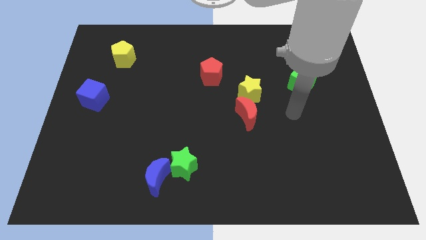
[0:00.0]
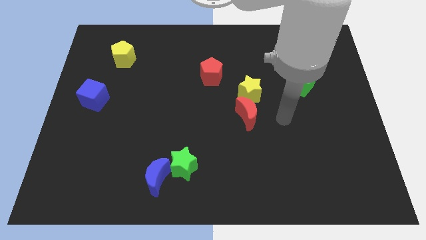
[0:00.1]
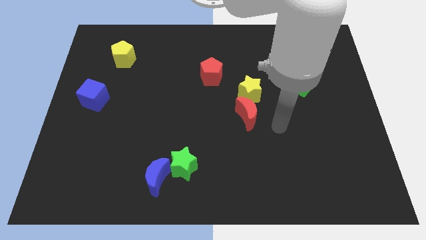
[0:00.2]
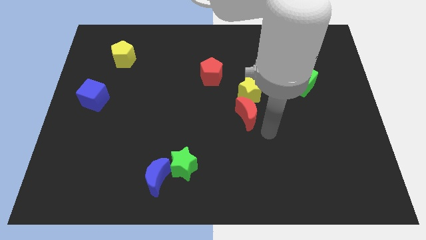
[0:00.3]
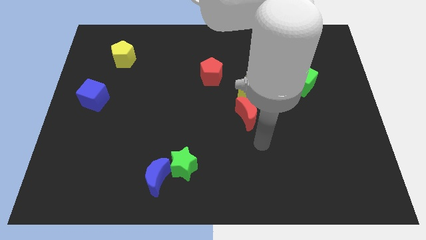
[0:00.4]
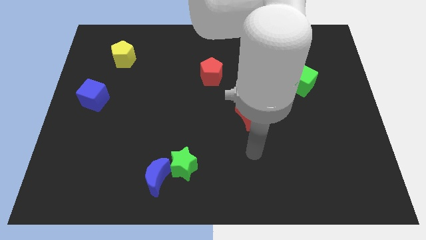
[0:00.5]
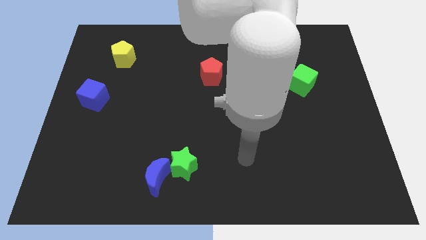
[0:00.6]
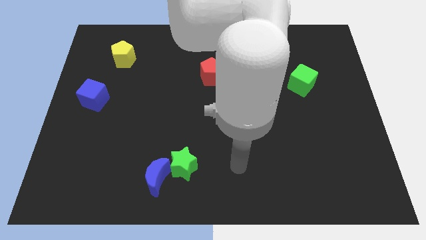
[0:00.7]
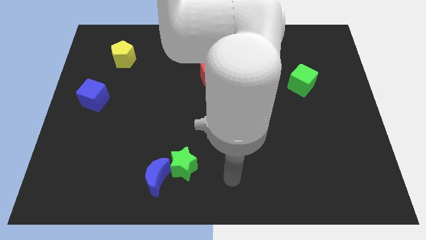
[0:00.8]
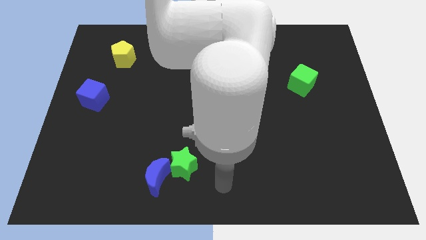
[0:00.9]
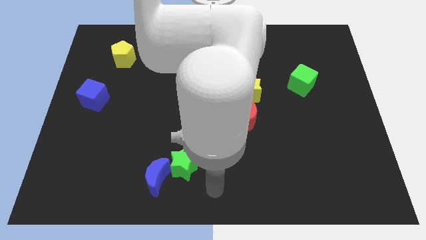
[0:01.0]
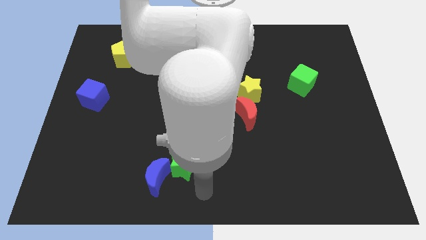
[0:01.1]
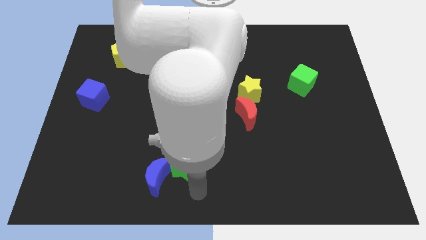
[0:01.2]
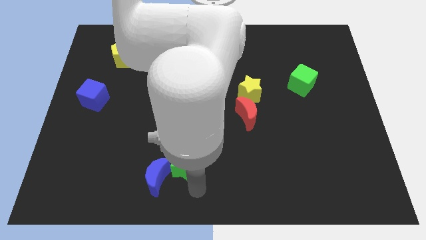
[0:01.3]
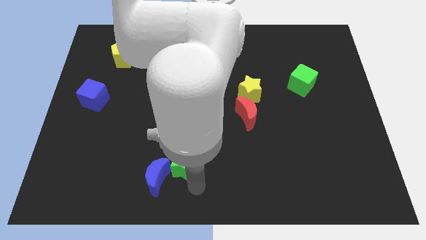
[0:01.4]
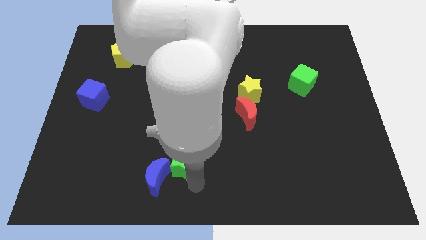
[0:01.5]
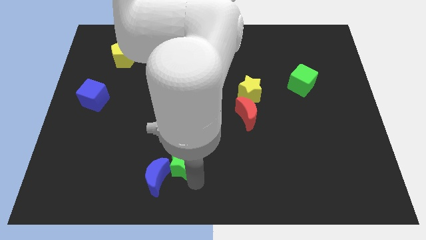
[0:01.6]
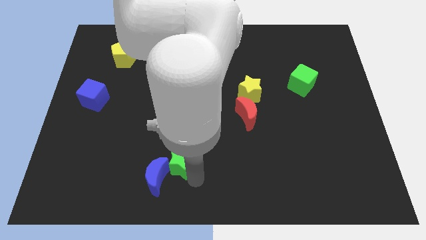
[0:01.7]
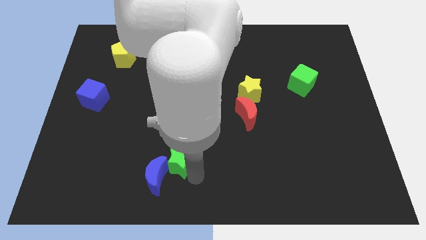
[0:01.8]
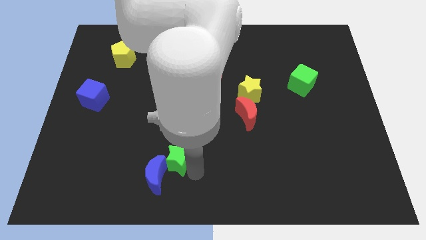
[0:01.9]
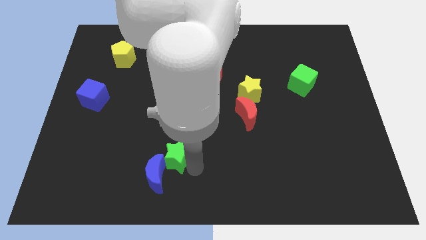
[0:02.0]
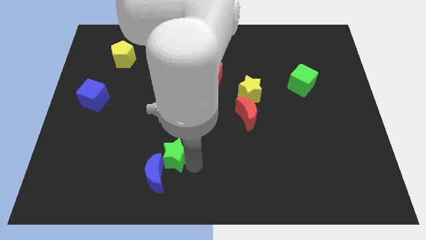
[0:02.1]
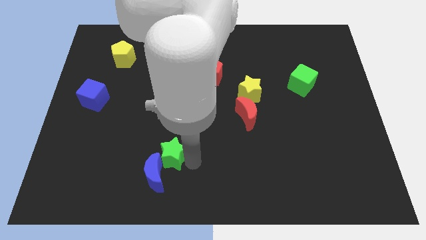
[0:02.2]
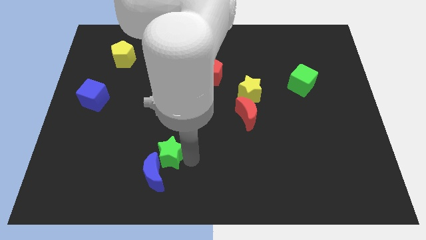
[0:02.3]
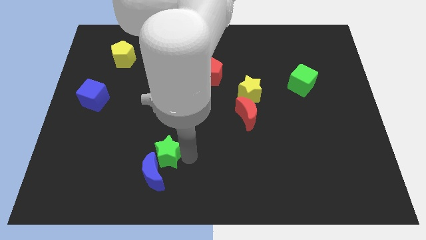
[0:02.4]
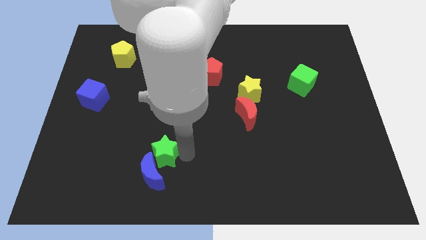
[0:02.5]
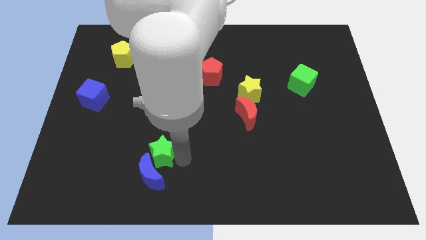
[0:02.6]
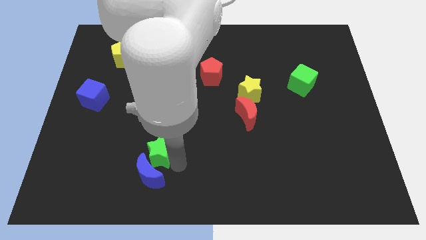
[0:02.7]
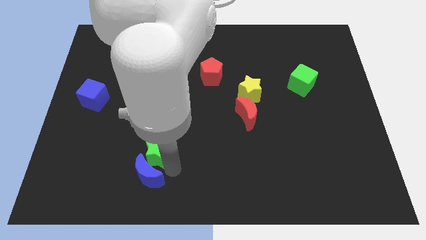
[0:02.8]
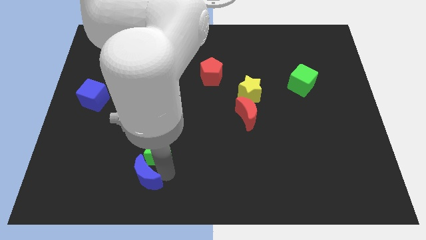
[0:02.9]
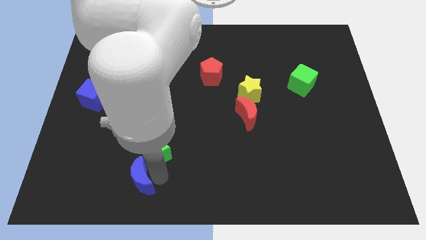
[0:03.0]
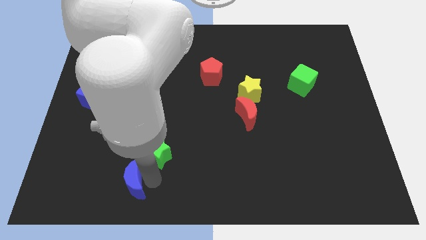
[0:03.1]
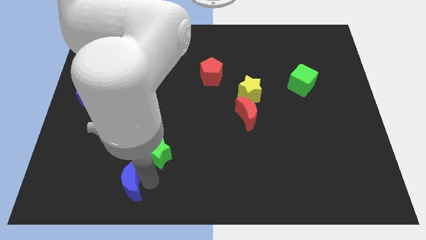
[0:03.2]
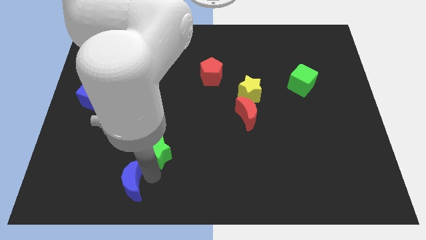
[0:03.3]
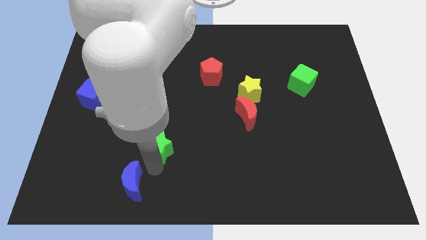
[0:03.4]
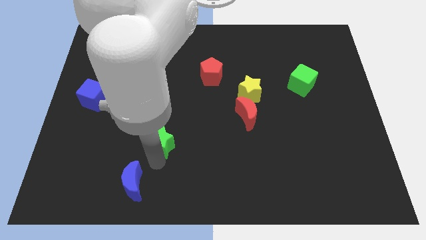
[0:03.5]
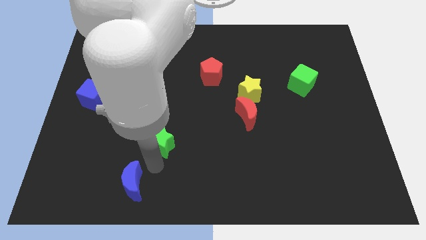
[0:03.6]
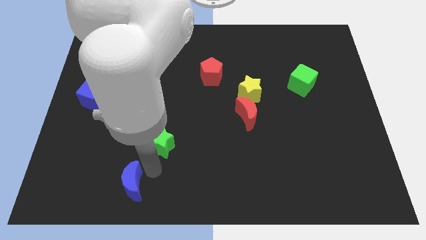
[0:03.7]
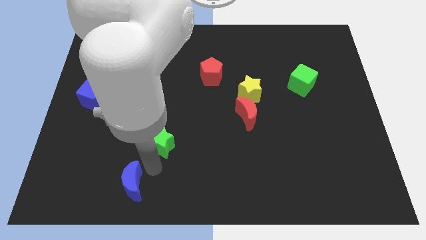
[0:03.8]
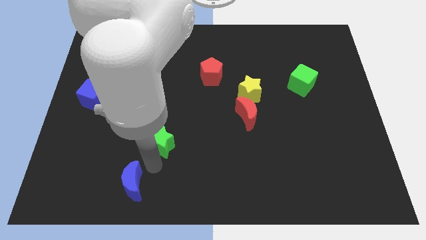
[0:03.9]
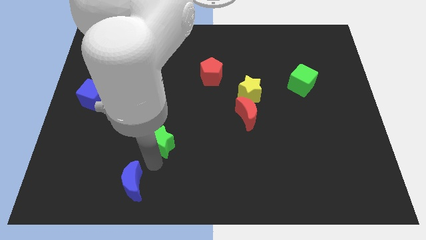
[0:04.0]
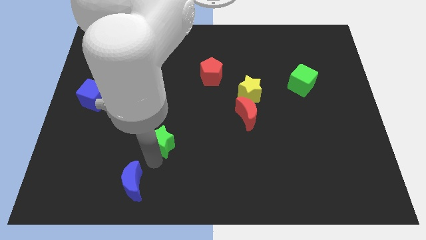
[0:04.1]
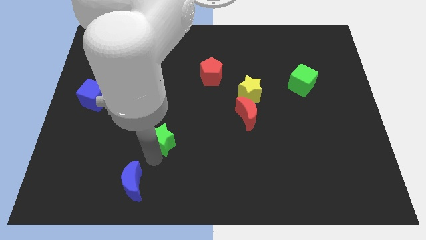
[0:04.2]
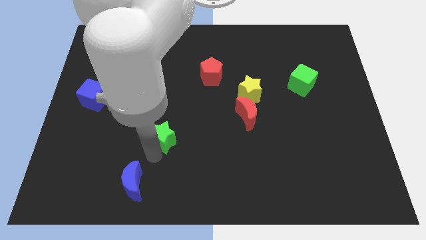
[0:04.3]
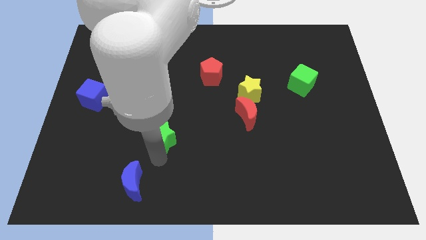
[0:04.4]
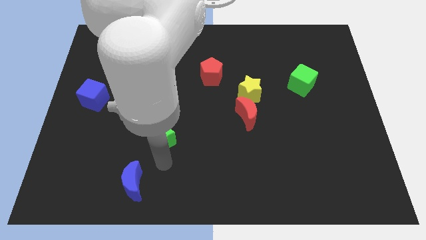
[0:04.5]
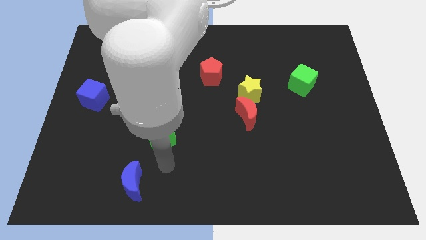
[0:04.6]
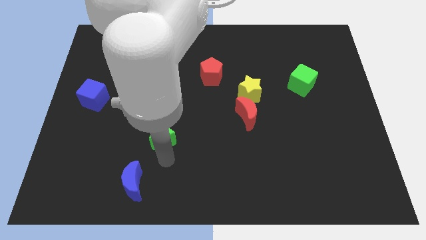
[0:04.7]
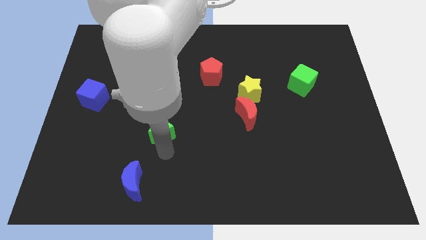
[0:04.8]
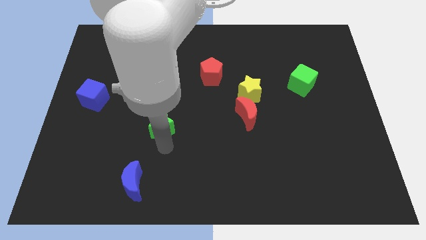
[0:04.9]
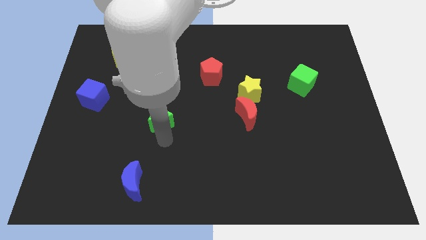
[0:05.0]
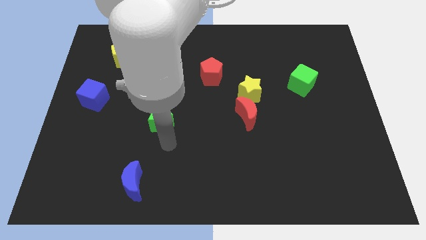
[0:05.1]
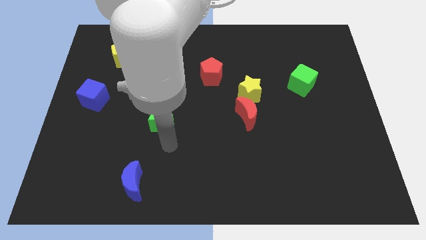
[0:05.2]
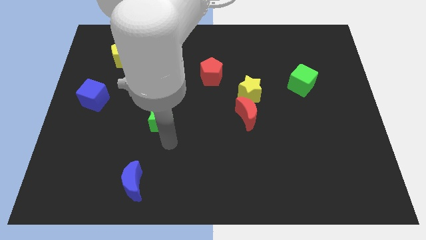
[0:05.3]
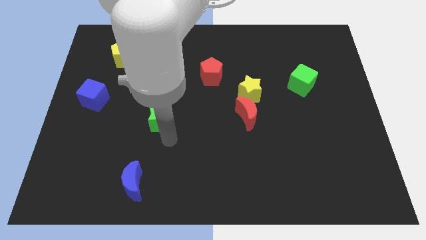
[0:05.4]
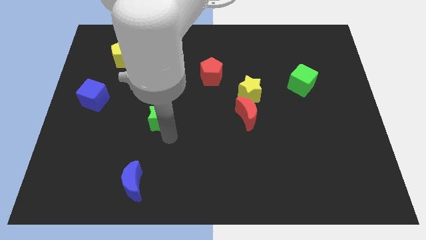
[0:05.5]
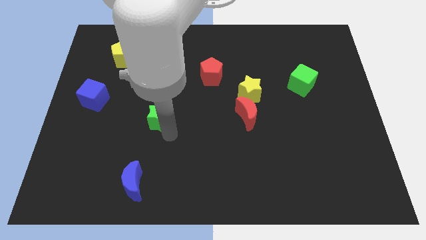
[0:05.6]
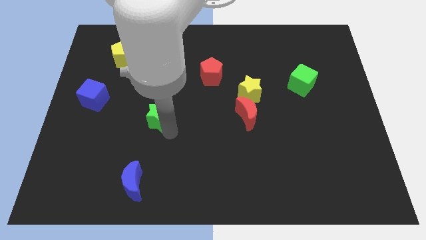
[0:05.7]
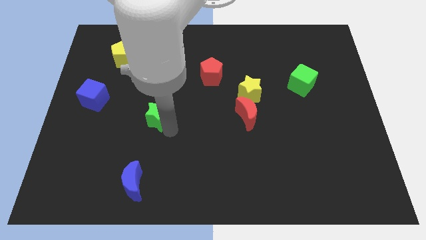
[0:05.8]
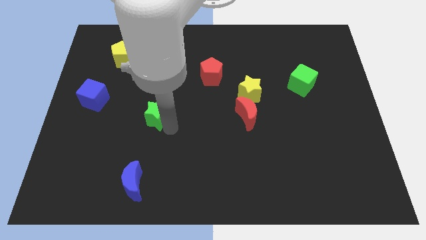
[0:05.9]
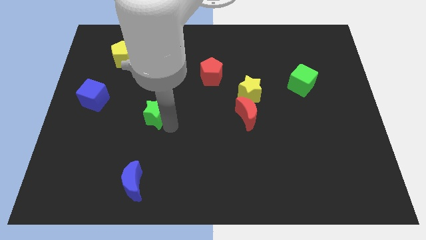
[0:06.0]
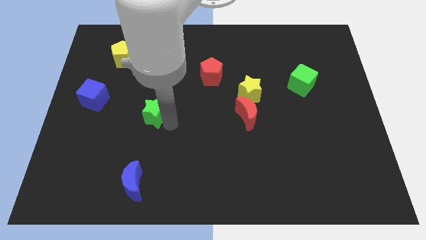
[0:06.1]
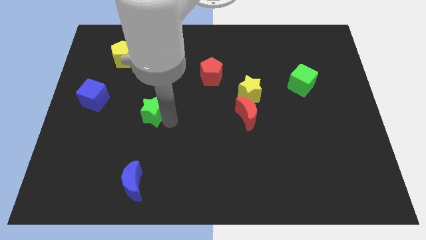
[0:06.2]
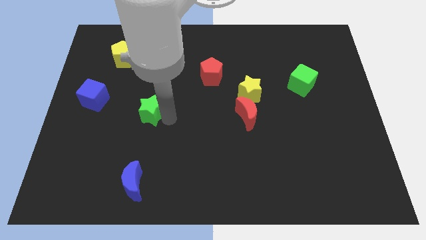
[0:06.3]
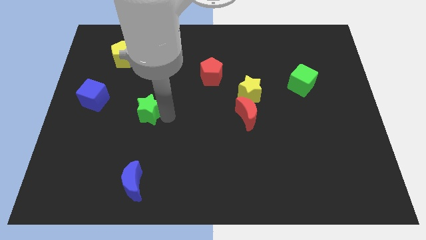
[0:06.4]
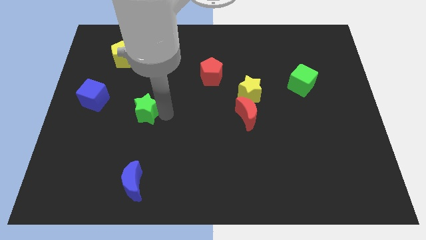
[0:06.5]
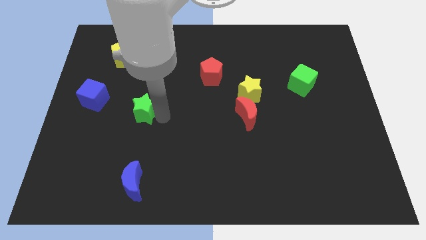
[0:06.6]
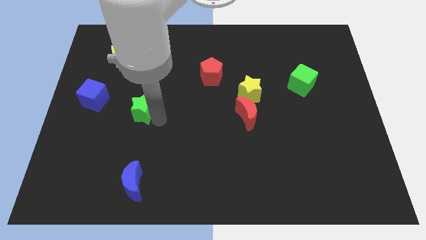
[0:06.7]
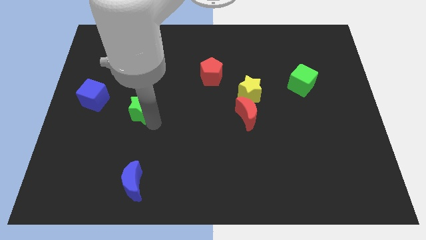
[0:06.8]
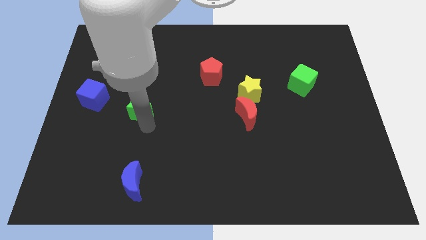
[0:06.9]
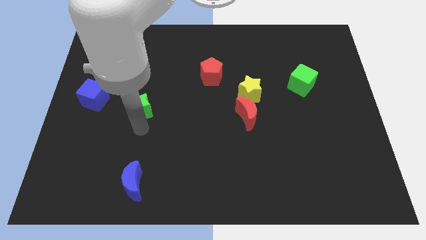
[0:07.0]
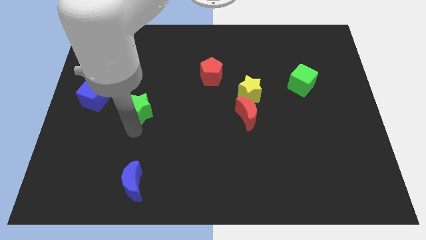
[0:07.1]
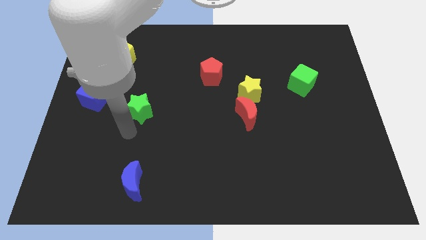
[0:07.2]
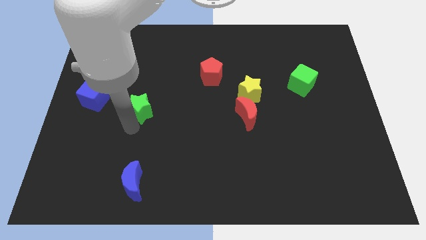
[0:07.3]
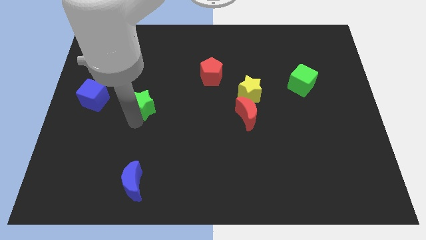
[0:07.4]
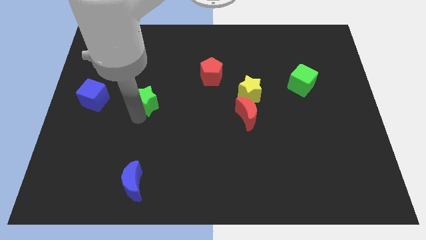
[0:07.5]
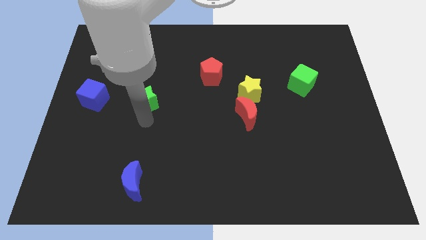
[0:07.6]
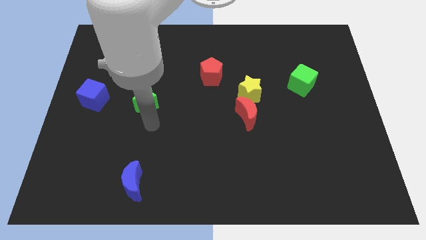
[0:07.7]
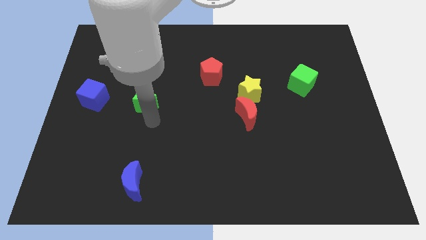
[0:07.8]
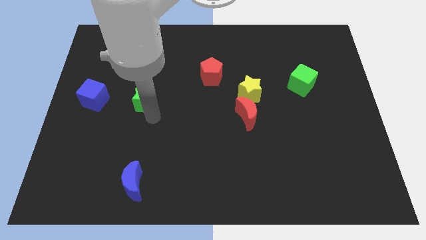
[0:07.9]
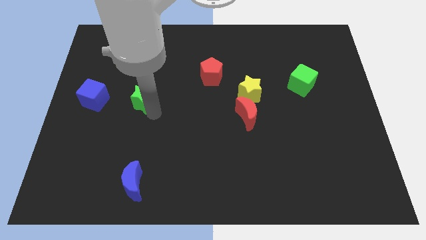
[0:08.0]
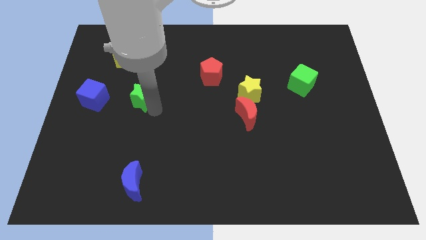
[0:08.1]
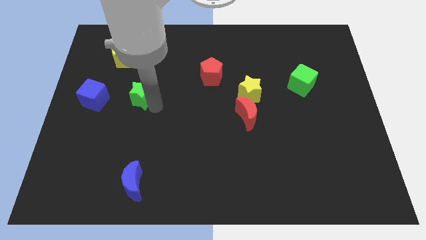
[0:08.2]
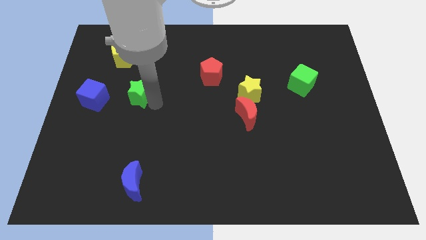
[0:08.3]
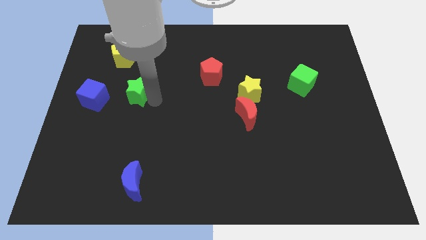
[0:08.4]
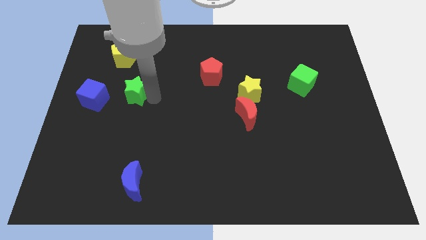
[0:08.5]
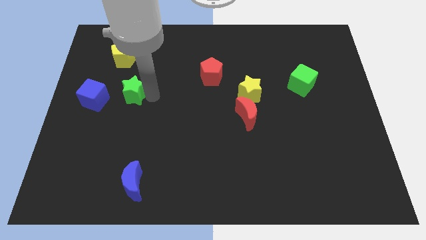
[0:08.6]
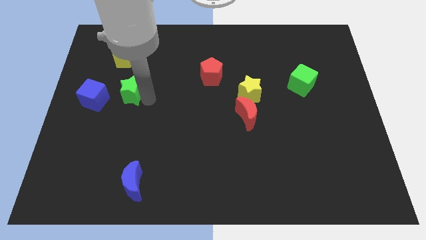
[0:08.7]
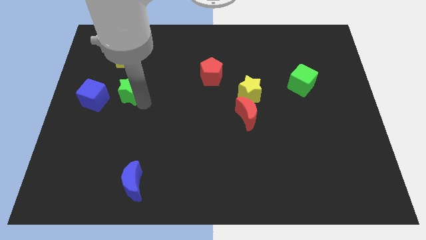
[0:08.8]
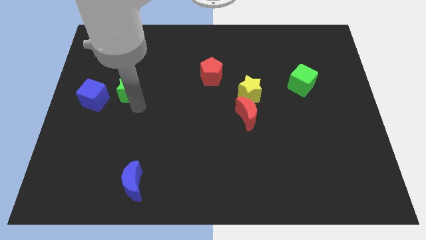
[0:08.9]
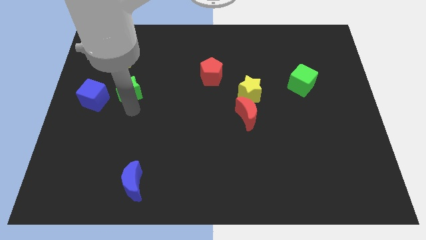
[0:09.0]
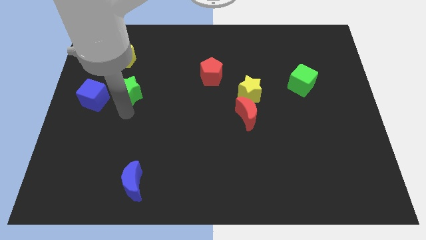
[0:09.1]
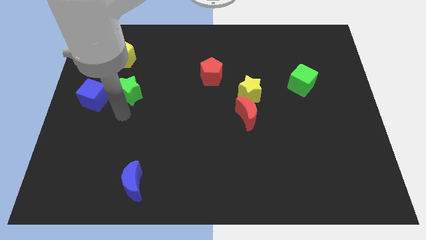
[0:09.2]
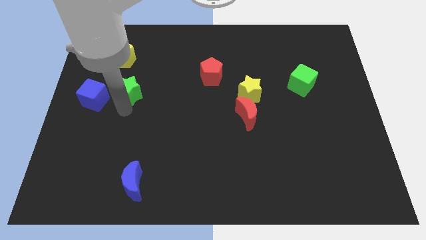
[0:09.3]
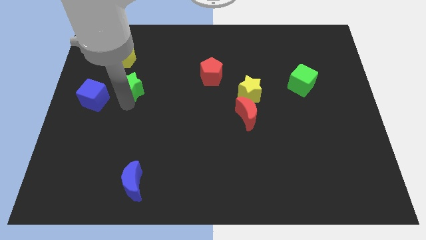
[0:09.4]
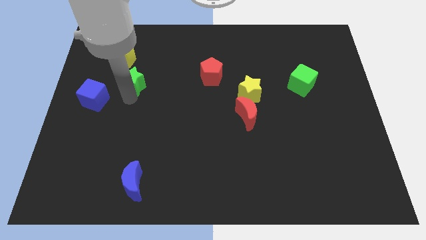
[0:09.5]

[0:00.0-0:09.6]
move the green star to the bottom right side of the yellow pentagon
